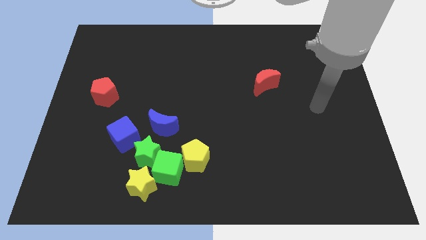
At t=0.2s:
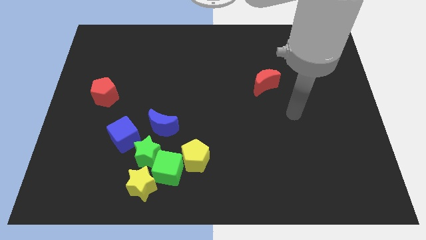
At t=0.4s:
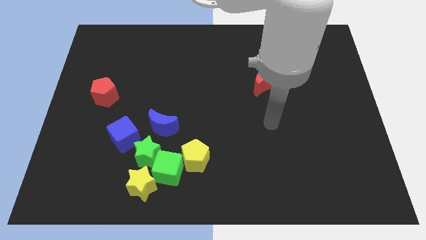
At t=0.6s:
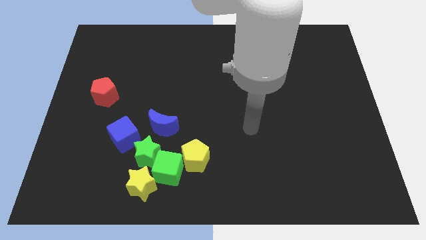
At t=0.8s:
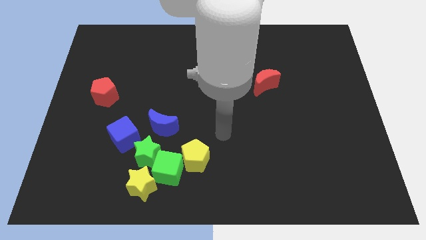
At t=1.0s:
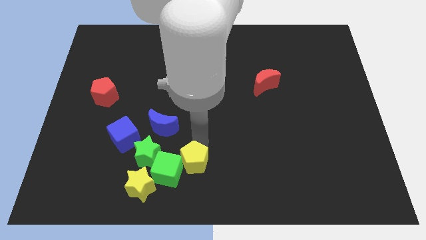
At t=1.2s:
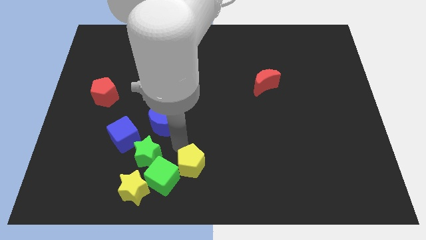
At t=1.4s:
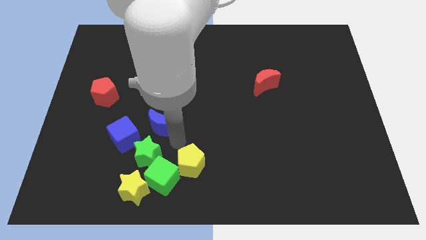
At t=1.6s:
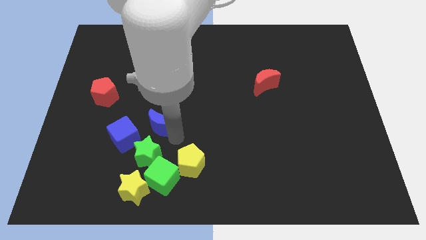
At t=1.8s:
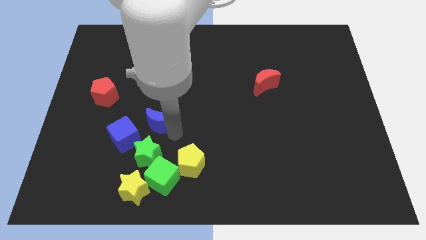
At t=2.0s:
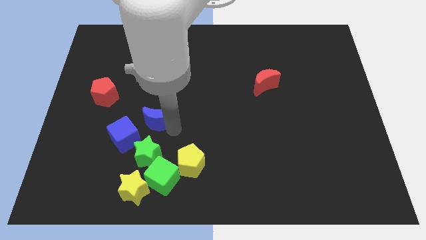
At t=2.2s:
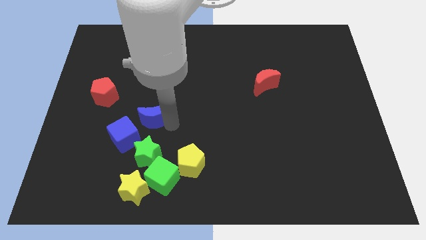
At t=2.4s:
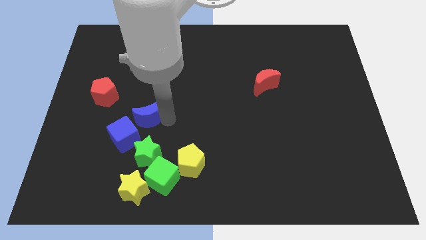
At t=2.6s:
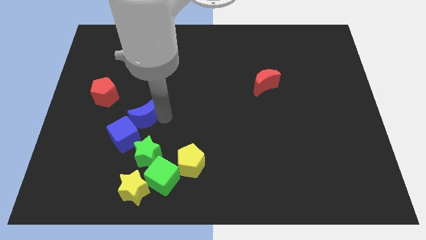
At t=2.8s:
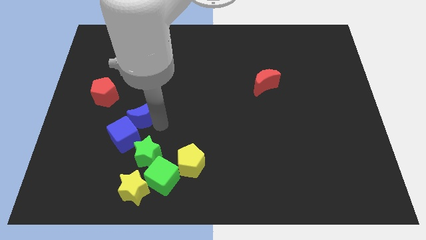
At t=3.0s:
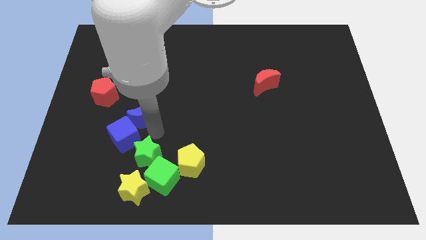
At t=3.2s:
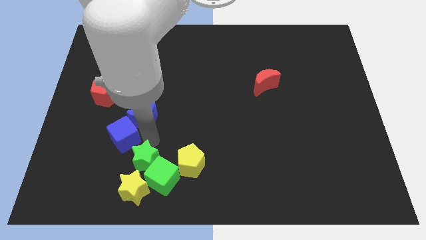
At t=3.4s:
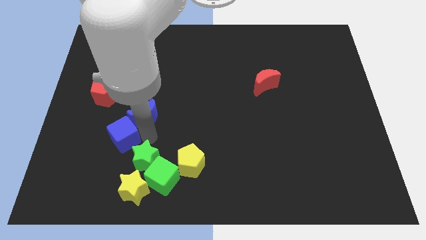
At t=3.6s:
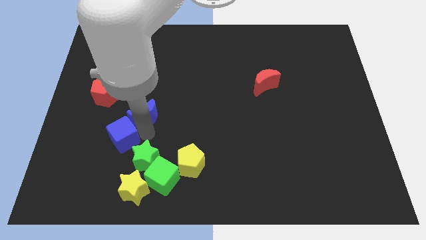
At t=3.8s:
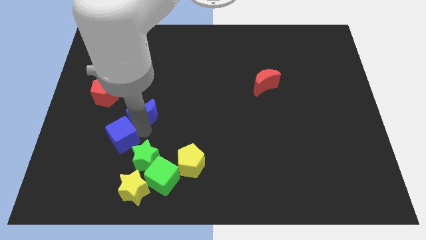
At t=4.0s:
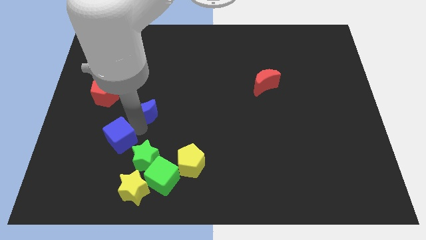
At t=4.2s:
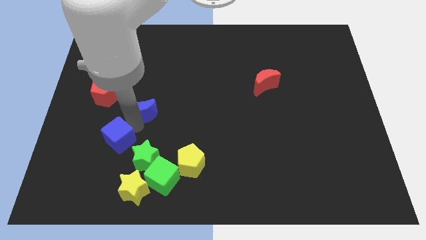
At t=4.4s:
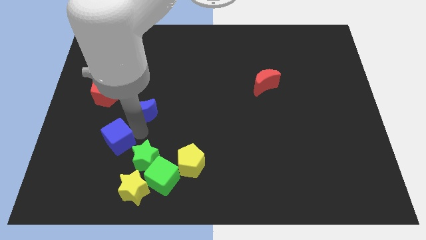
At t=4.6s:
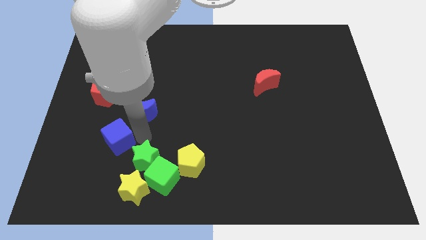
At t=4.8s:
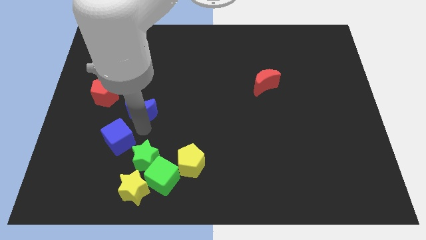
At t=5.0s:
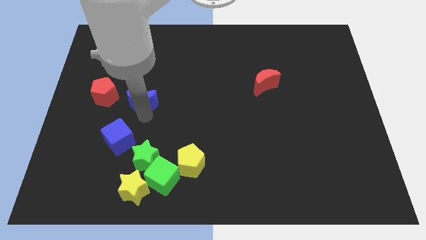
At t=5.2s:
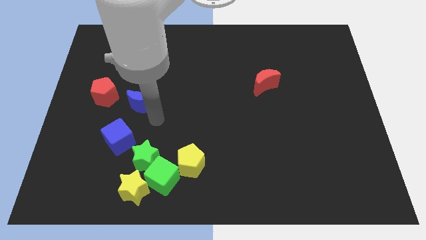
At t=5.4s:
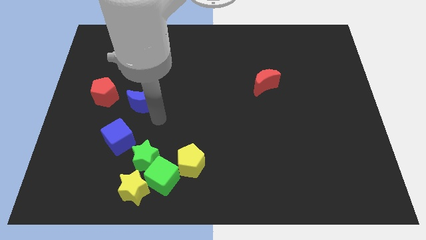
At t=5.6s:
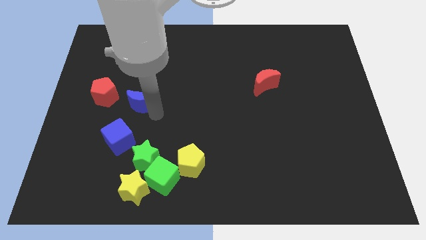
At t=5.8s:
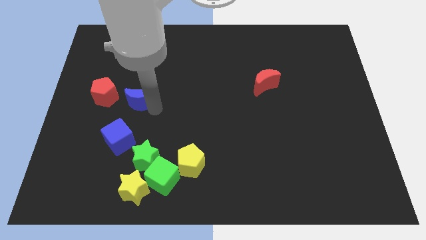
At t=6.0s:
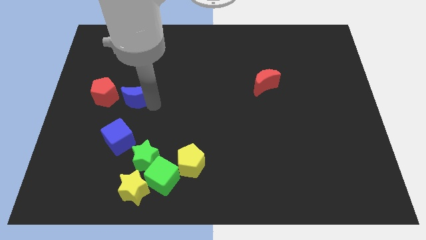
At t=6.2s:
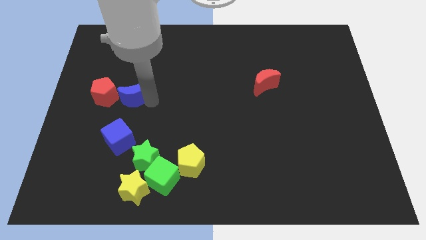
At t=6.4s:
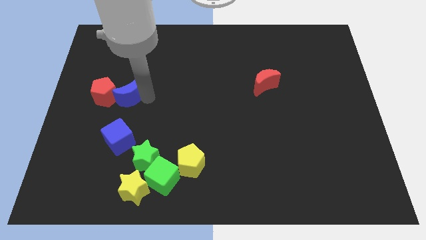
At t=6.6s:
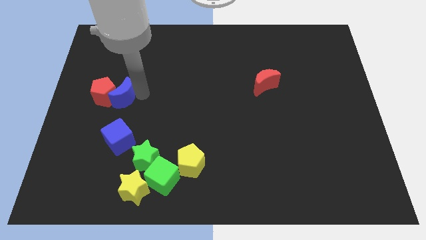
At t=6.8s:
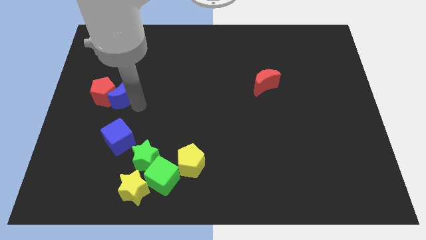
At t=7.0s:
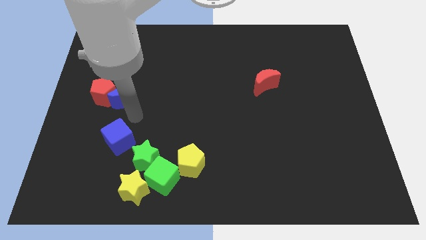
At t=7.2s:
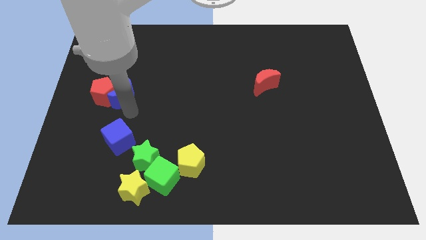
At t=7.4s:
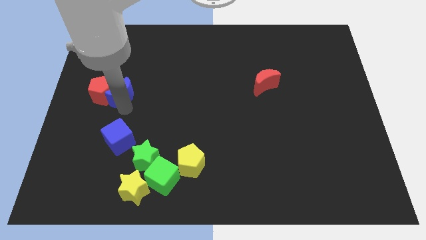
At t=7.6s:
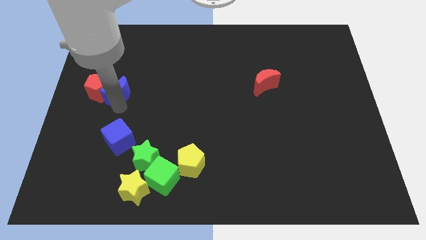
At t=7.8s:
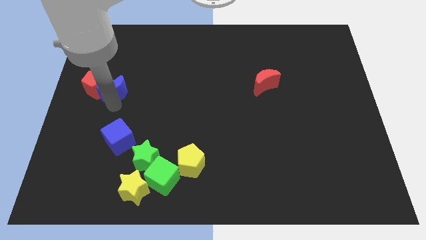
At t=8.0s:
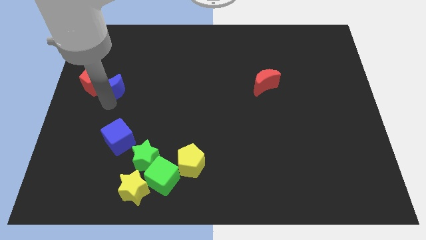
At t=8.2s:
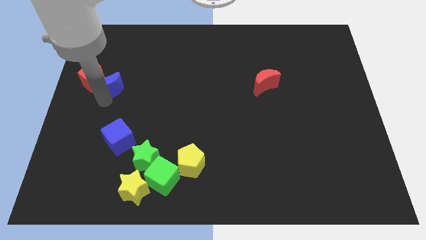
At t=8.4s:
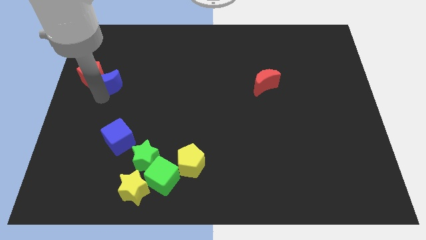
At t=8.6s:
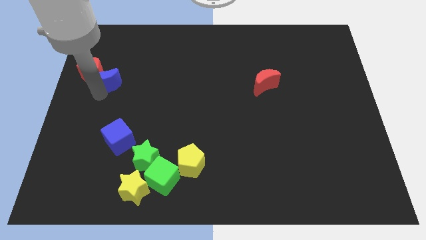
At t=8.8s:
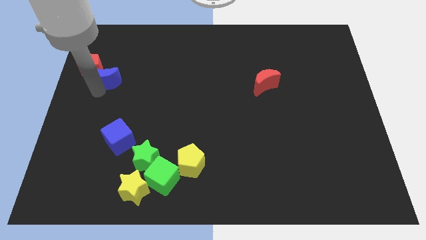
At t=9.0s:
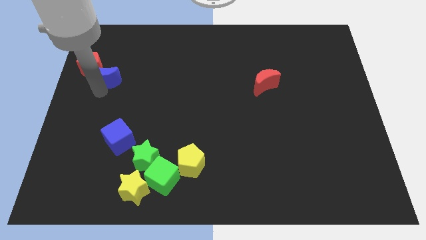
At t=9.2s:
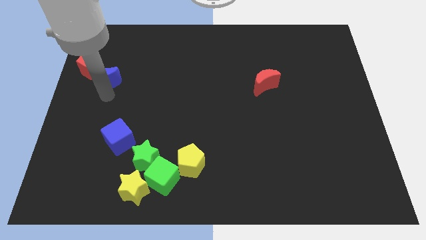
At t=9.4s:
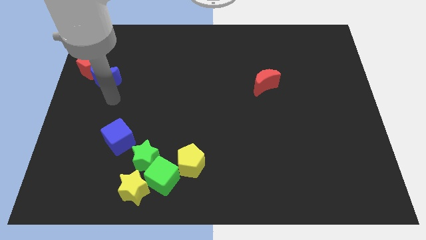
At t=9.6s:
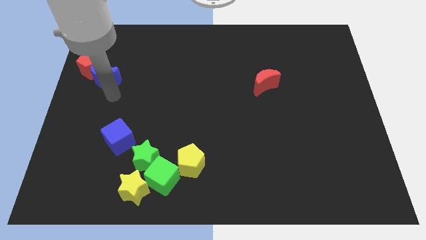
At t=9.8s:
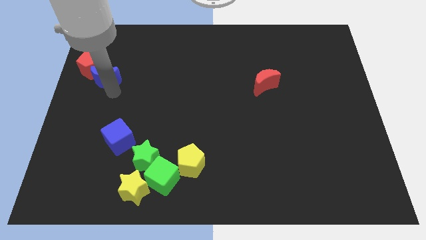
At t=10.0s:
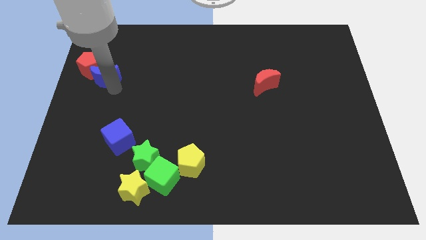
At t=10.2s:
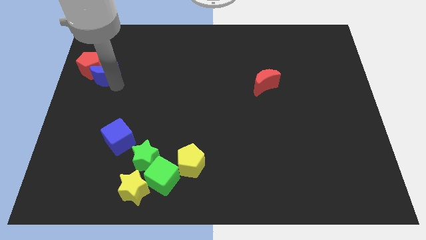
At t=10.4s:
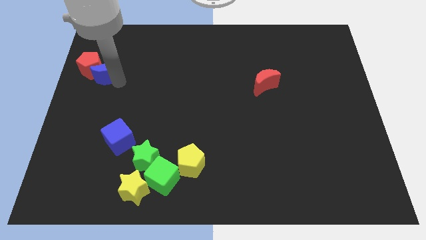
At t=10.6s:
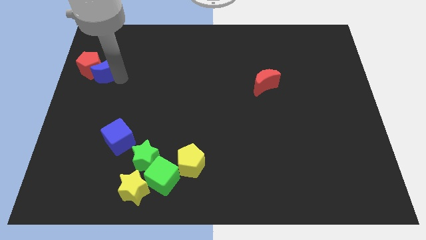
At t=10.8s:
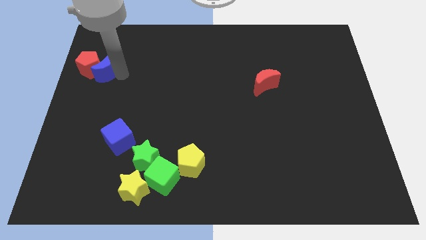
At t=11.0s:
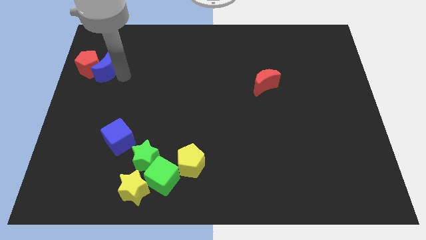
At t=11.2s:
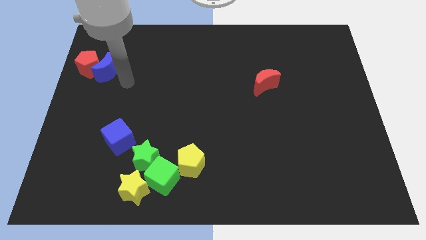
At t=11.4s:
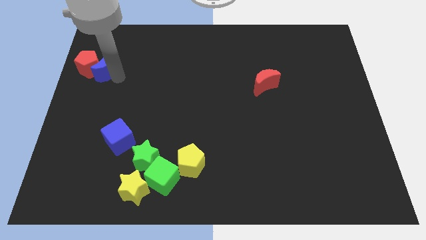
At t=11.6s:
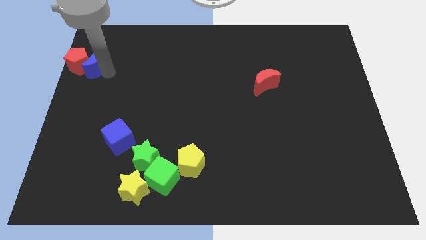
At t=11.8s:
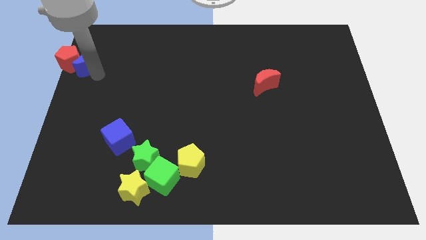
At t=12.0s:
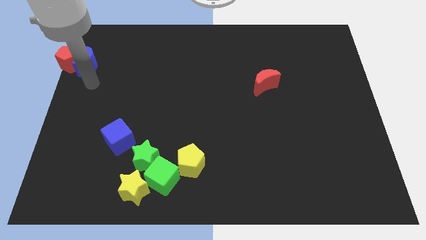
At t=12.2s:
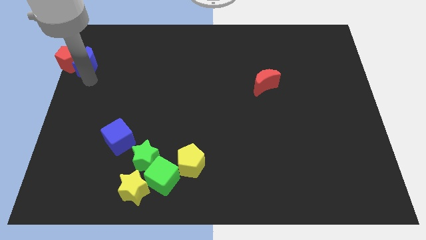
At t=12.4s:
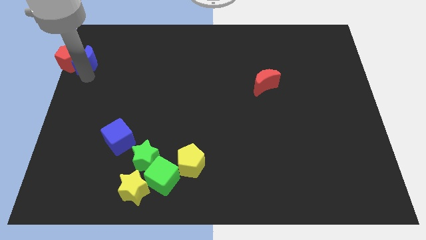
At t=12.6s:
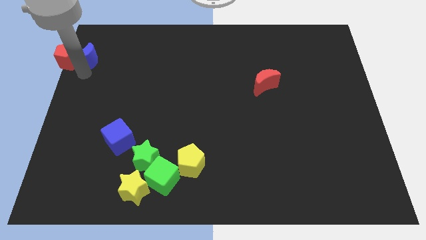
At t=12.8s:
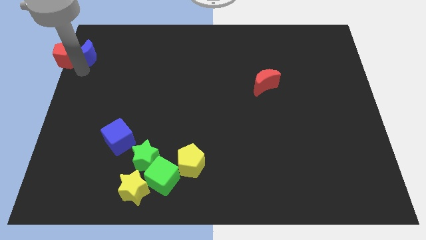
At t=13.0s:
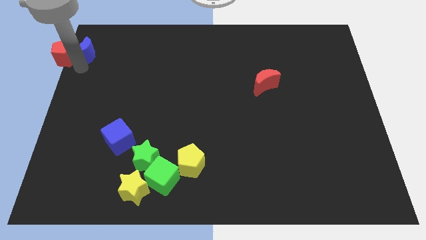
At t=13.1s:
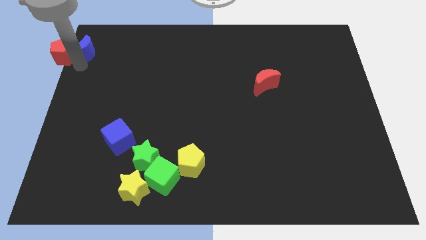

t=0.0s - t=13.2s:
move the blue moon to the top left
